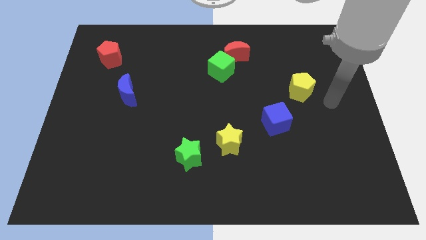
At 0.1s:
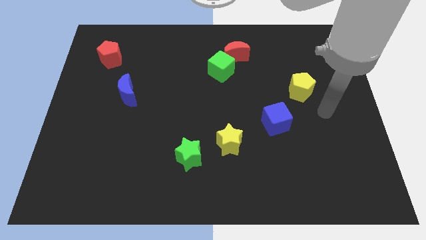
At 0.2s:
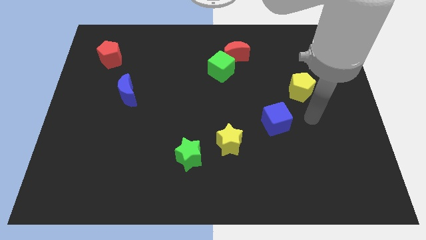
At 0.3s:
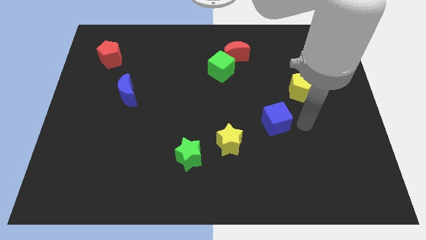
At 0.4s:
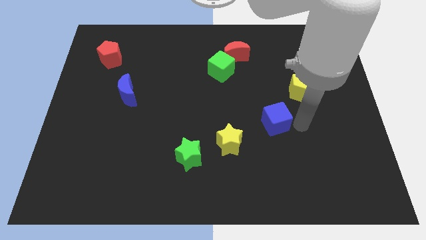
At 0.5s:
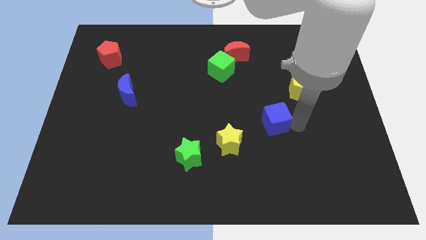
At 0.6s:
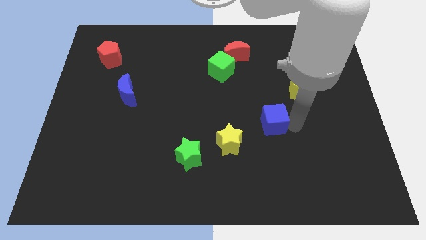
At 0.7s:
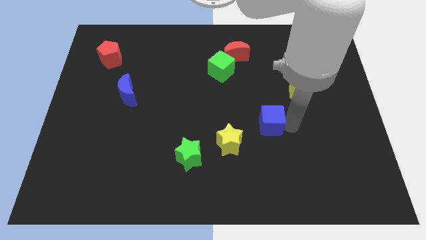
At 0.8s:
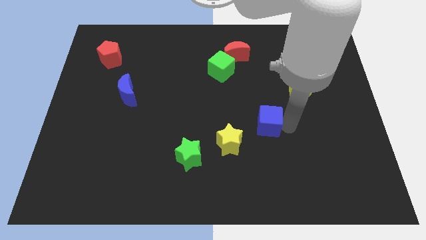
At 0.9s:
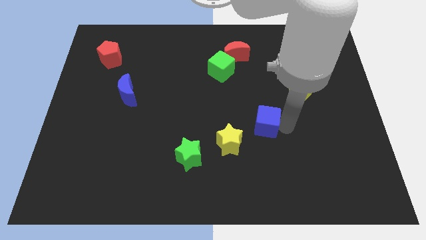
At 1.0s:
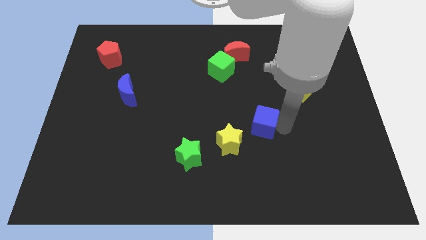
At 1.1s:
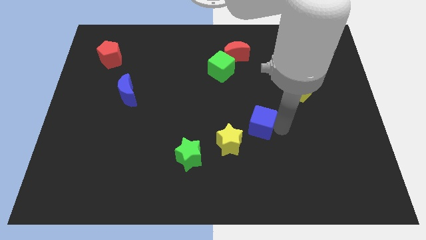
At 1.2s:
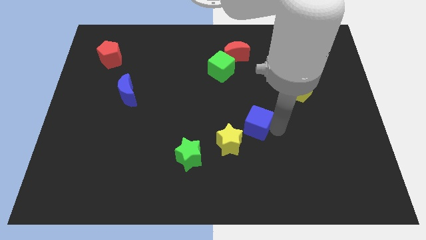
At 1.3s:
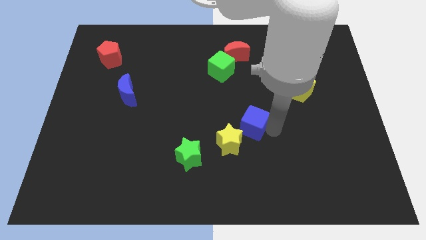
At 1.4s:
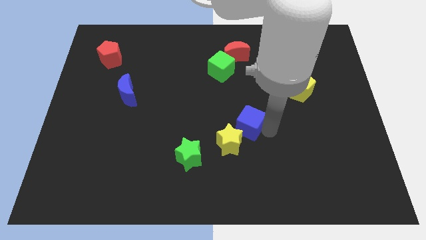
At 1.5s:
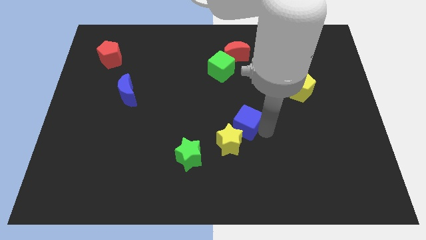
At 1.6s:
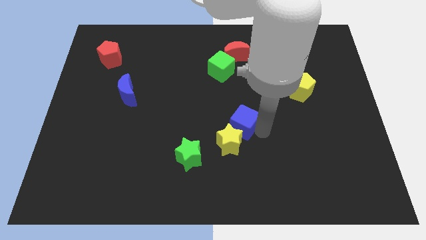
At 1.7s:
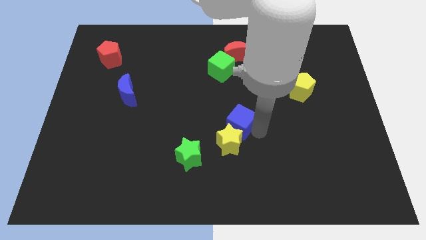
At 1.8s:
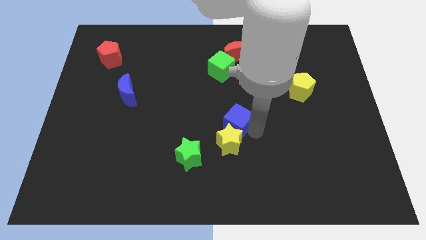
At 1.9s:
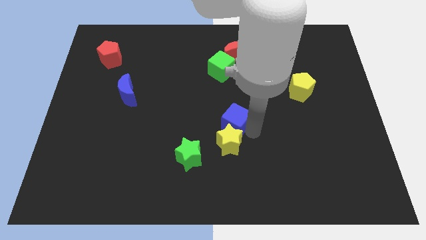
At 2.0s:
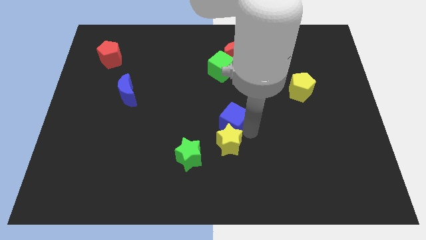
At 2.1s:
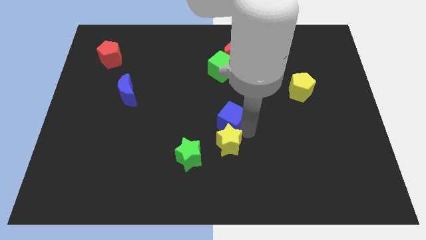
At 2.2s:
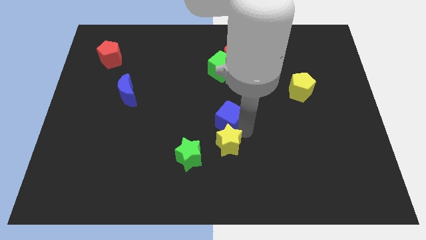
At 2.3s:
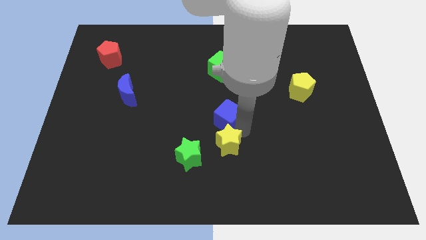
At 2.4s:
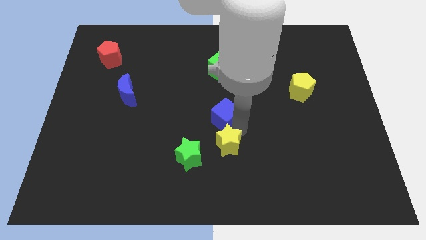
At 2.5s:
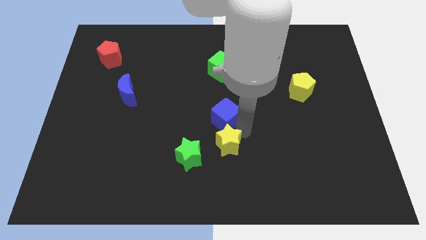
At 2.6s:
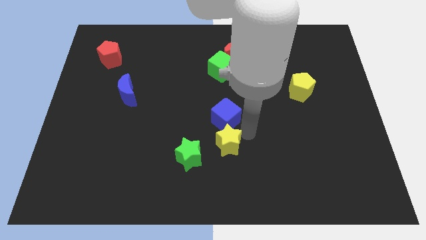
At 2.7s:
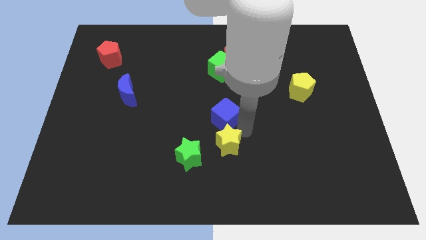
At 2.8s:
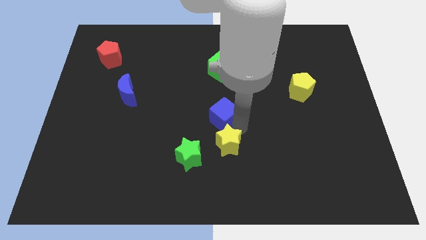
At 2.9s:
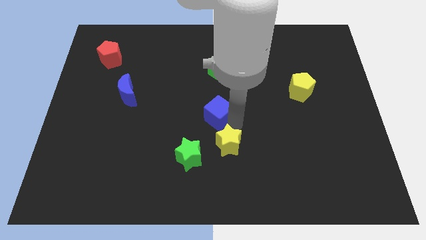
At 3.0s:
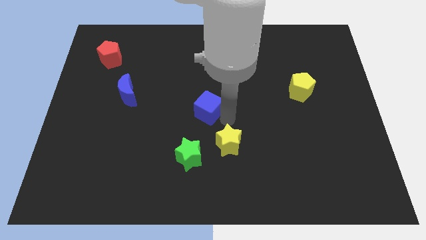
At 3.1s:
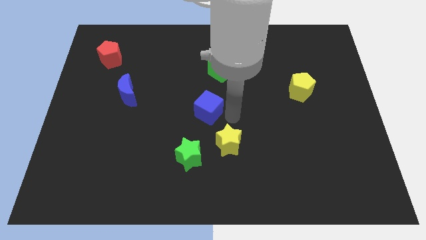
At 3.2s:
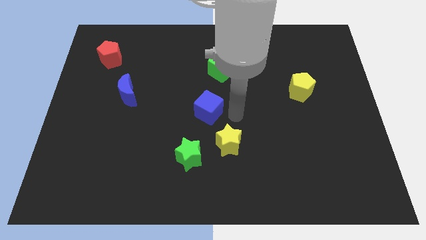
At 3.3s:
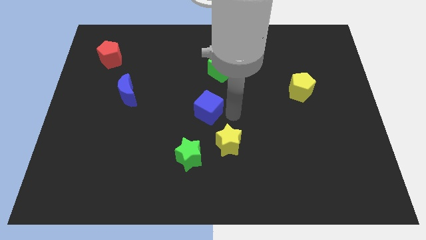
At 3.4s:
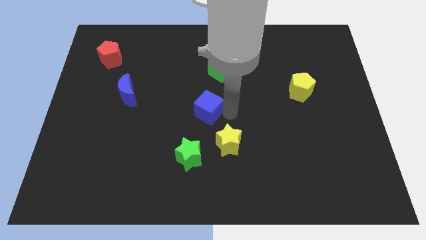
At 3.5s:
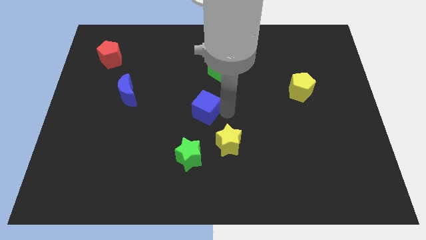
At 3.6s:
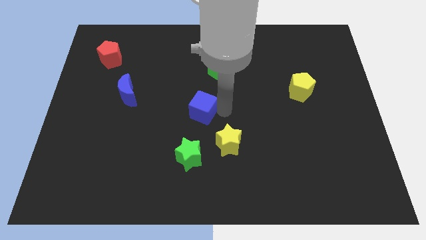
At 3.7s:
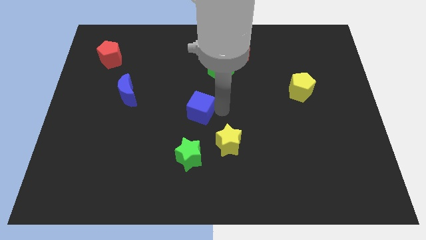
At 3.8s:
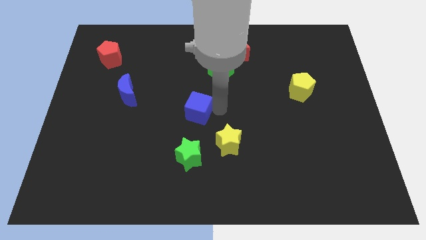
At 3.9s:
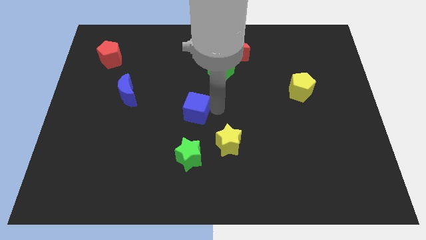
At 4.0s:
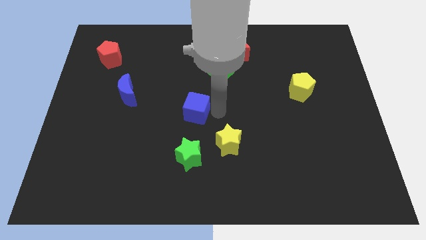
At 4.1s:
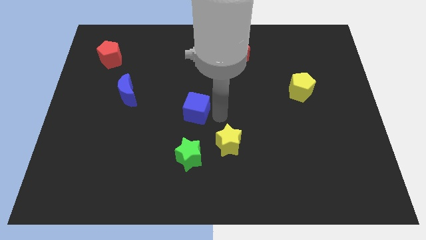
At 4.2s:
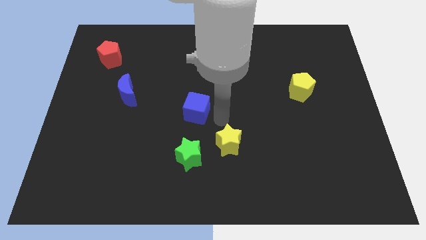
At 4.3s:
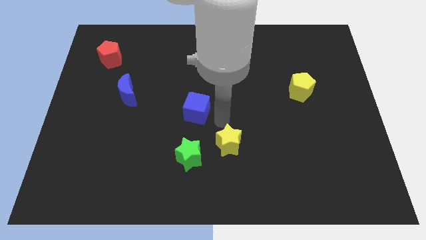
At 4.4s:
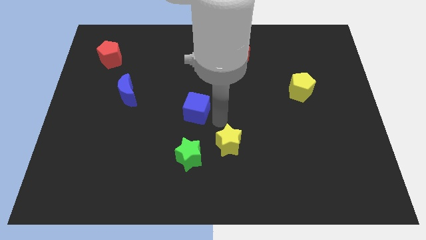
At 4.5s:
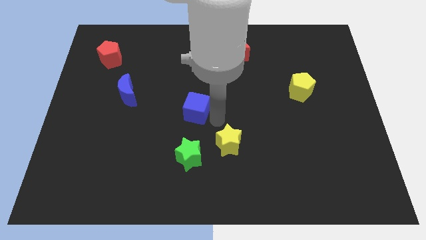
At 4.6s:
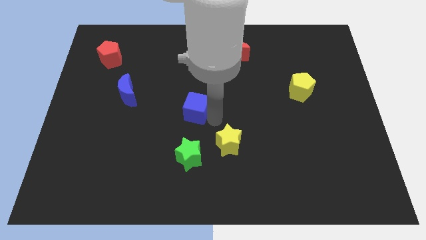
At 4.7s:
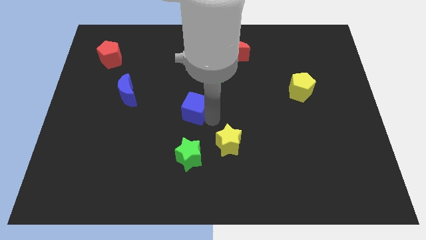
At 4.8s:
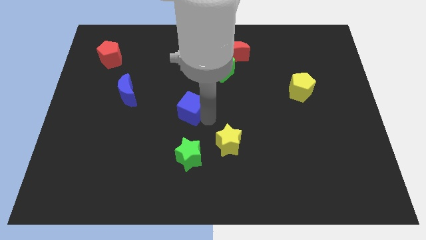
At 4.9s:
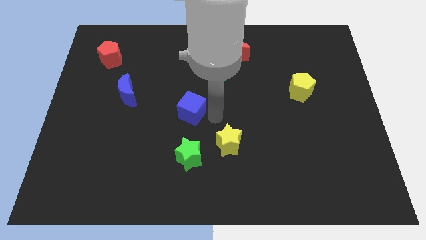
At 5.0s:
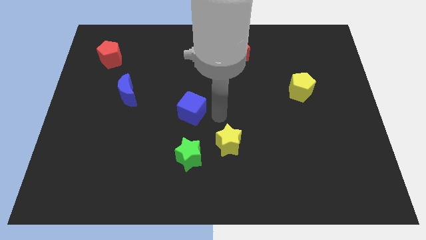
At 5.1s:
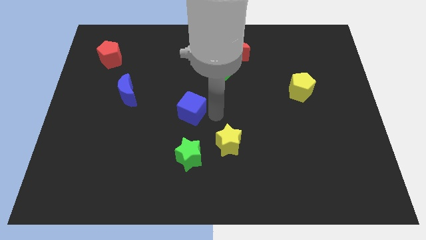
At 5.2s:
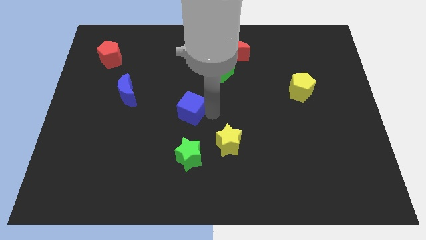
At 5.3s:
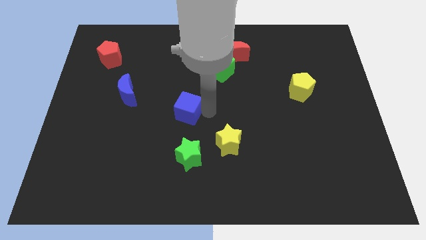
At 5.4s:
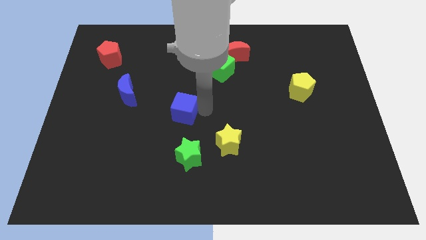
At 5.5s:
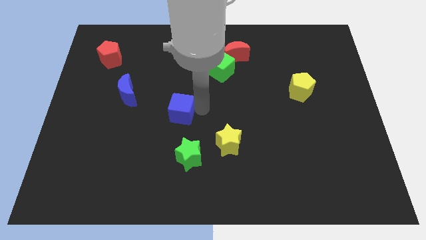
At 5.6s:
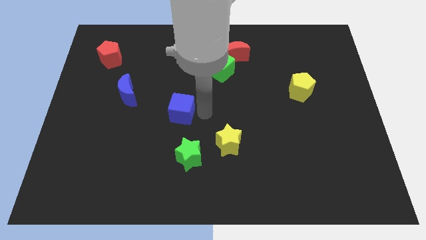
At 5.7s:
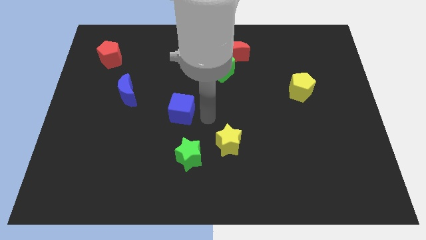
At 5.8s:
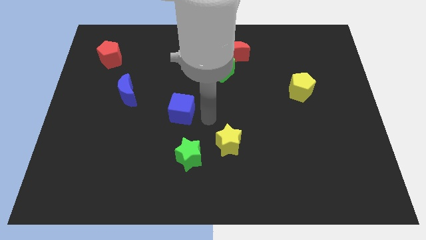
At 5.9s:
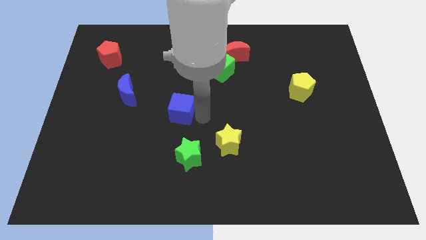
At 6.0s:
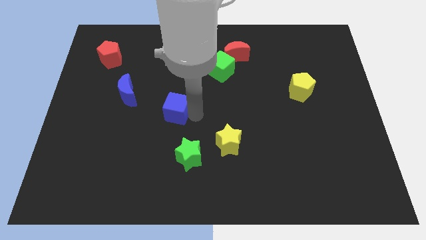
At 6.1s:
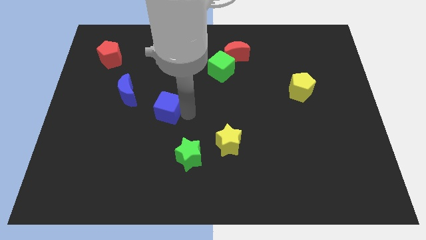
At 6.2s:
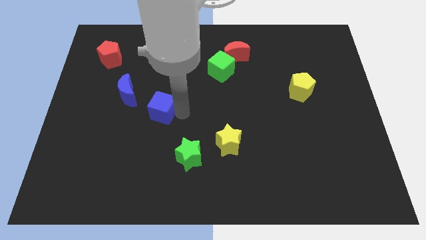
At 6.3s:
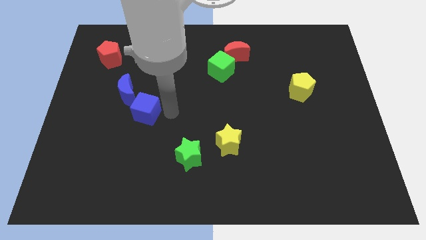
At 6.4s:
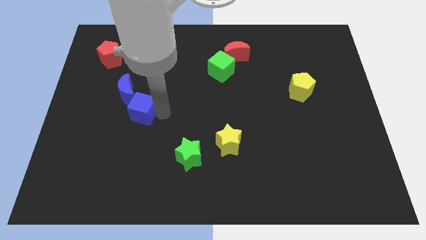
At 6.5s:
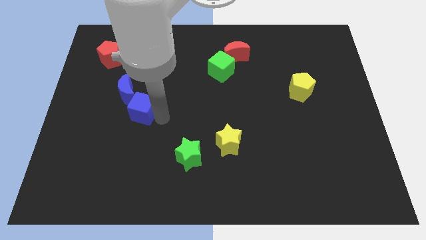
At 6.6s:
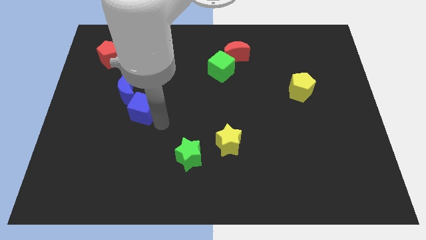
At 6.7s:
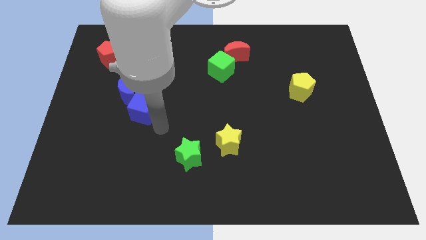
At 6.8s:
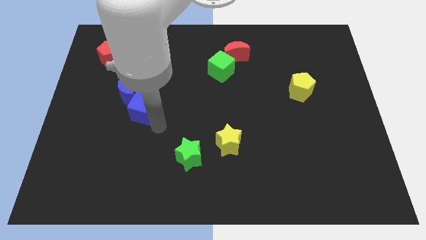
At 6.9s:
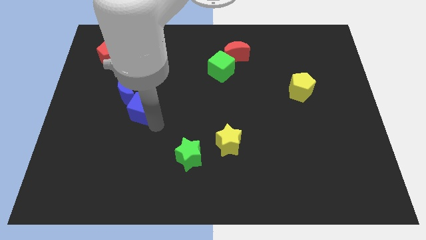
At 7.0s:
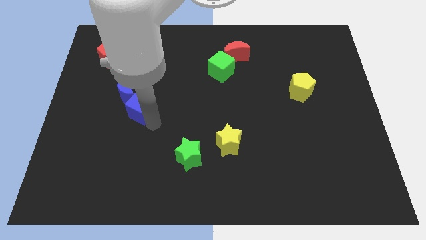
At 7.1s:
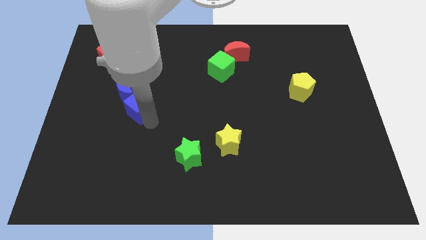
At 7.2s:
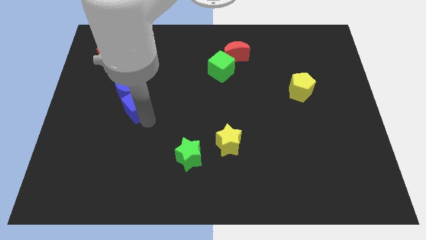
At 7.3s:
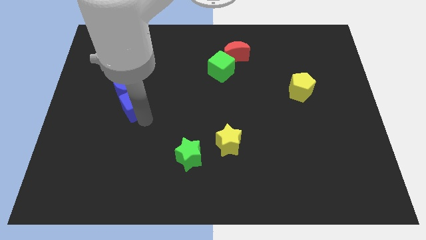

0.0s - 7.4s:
move the blue cube next to the blue moon
